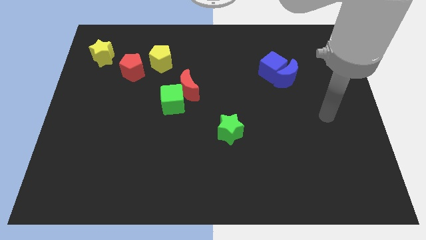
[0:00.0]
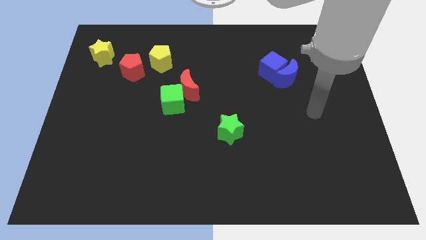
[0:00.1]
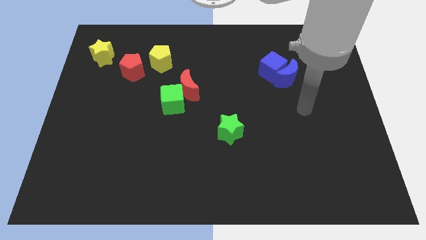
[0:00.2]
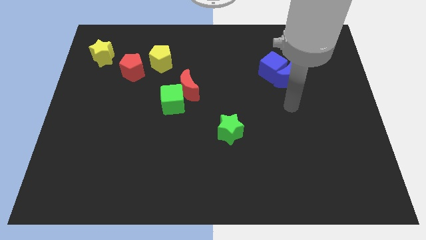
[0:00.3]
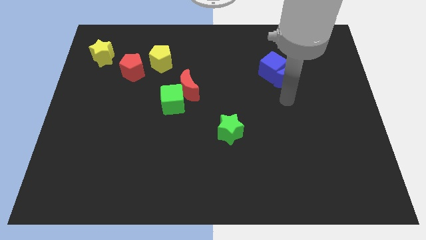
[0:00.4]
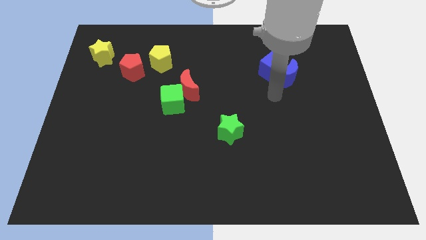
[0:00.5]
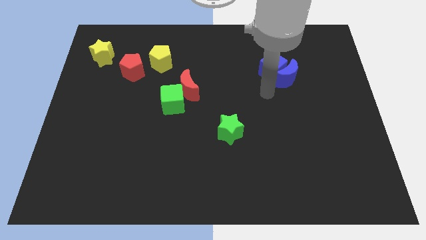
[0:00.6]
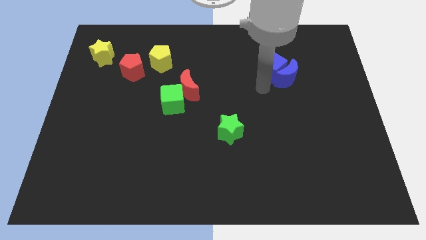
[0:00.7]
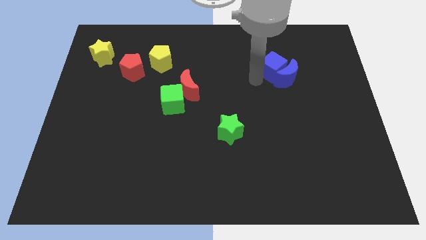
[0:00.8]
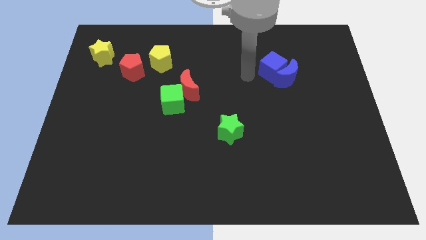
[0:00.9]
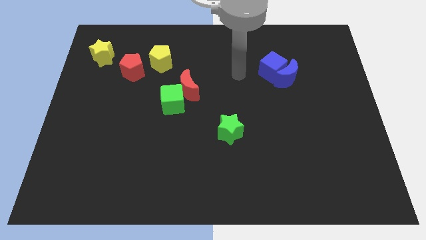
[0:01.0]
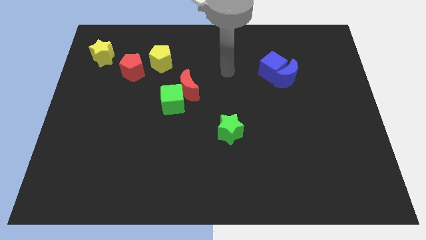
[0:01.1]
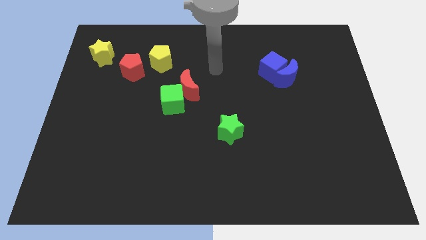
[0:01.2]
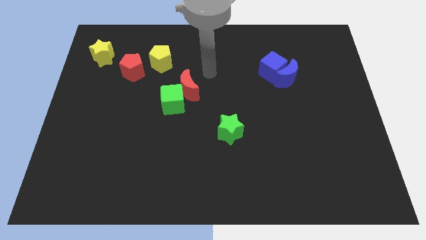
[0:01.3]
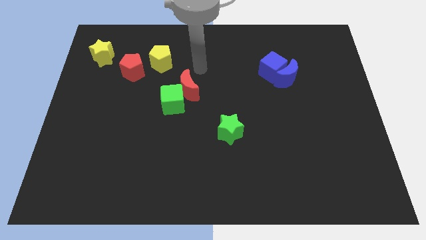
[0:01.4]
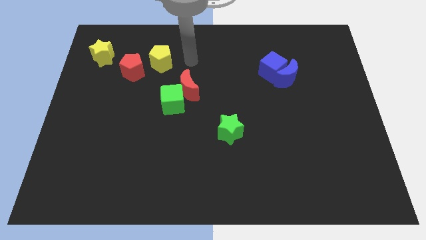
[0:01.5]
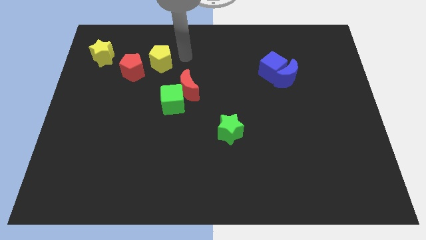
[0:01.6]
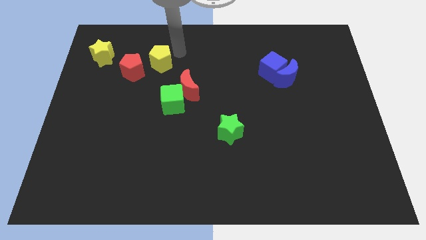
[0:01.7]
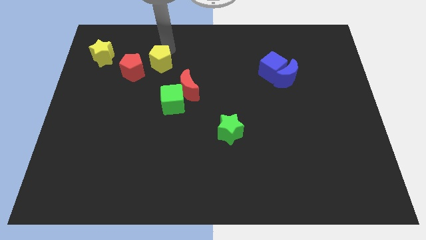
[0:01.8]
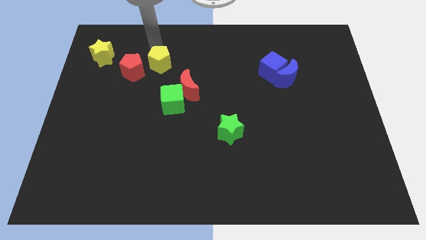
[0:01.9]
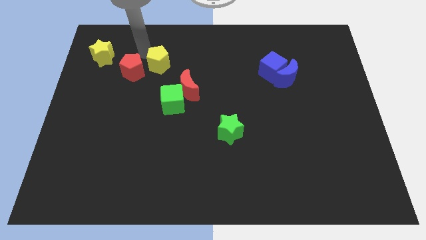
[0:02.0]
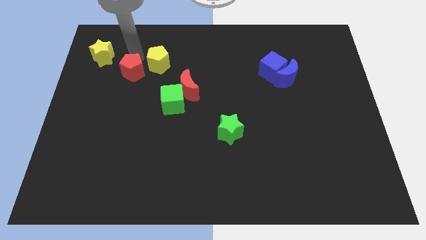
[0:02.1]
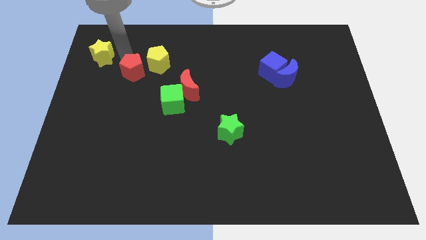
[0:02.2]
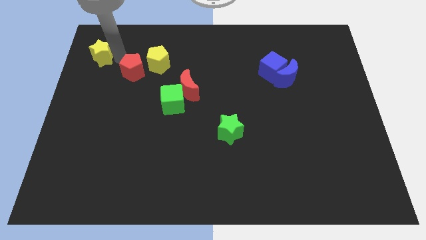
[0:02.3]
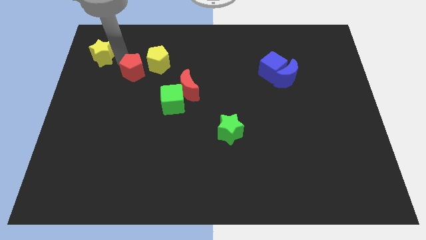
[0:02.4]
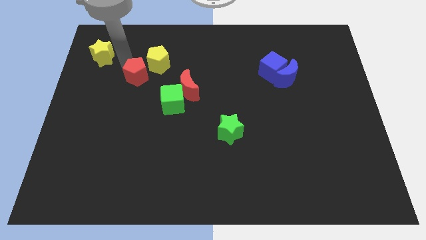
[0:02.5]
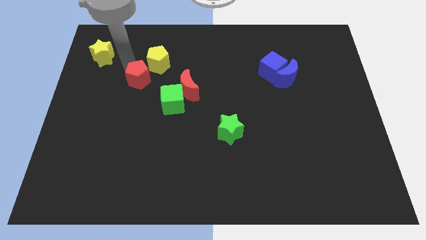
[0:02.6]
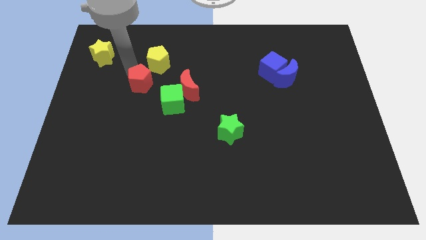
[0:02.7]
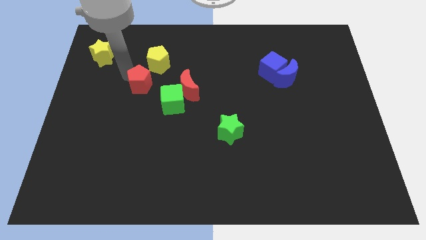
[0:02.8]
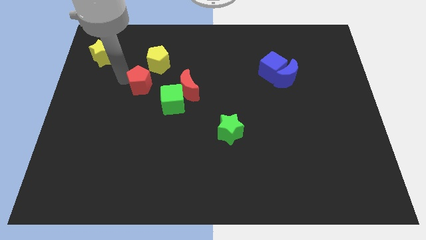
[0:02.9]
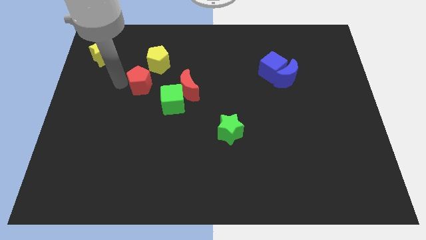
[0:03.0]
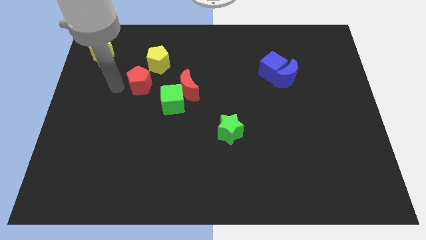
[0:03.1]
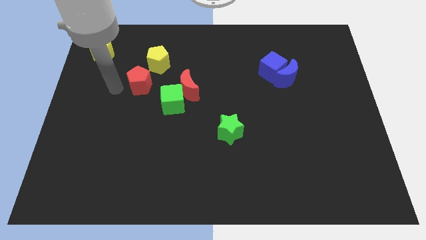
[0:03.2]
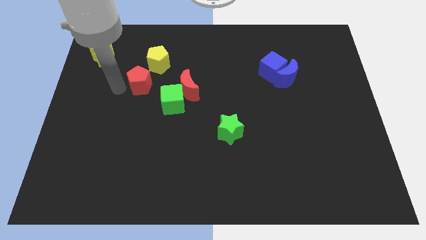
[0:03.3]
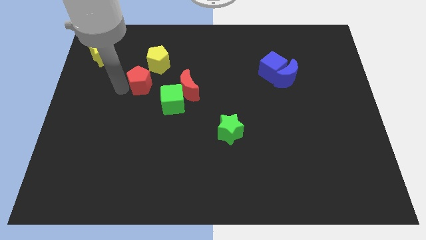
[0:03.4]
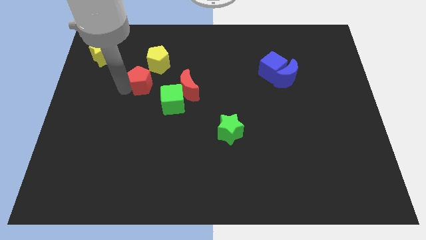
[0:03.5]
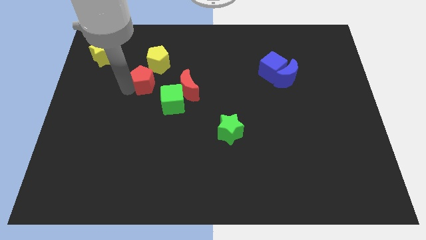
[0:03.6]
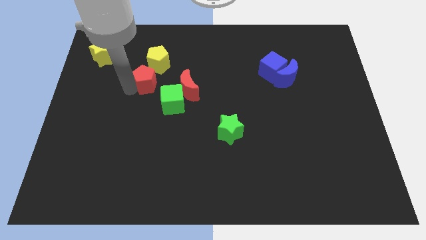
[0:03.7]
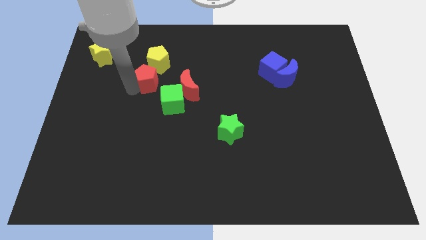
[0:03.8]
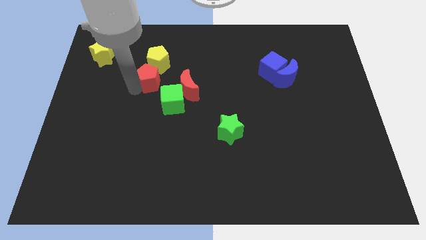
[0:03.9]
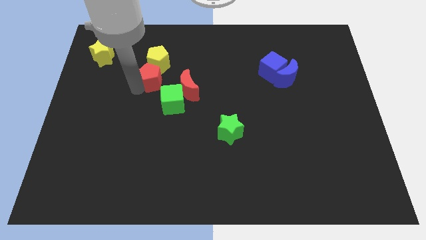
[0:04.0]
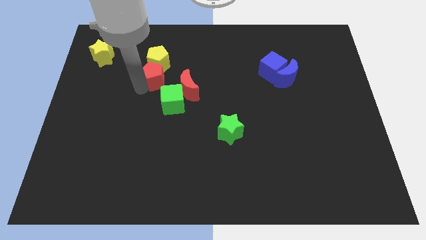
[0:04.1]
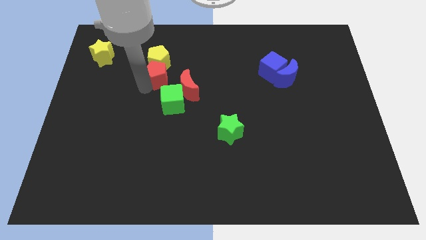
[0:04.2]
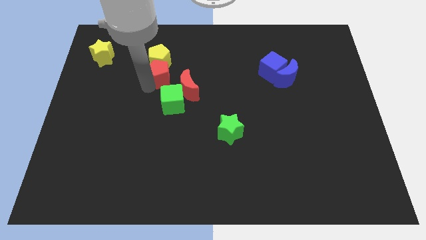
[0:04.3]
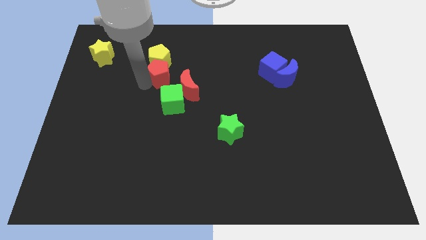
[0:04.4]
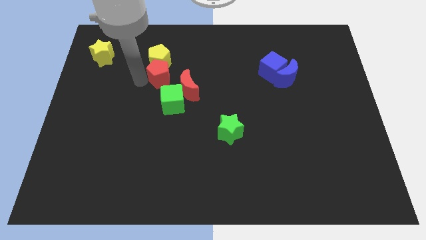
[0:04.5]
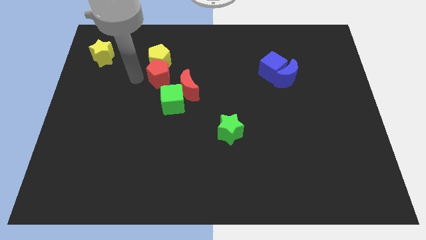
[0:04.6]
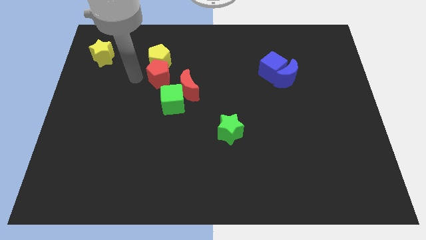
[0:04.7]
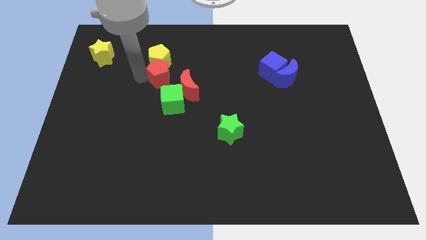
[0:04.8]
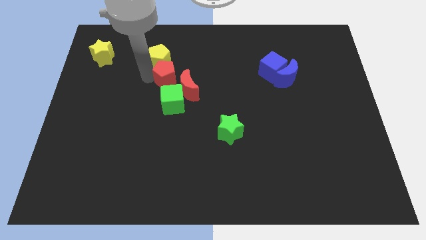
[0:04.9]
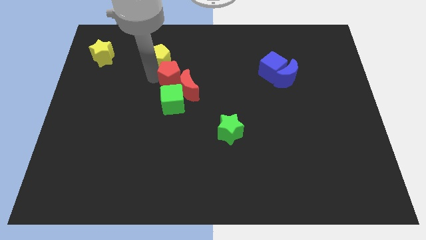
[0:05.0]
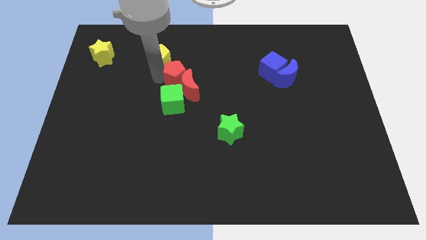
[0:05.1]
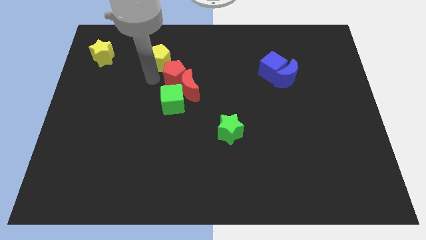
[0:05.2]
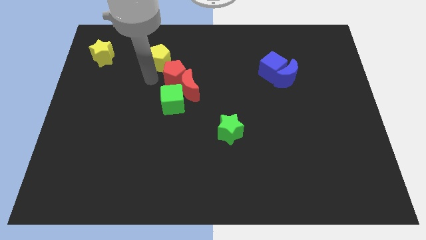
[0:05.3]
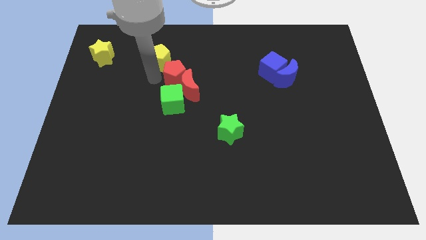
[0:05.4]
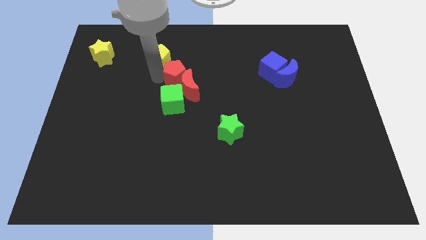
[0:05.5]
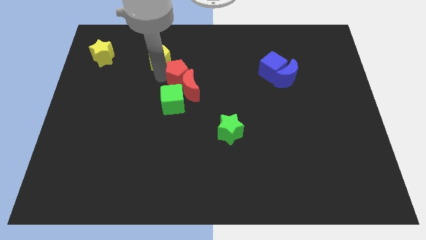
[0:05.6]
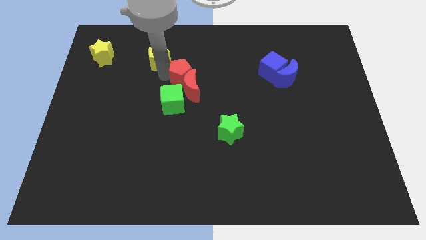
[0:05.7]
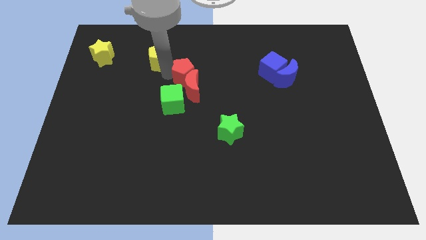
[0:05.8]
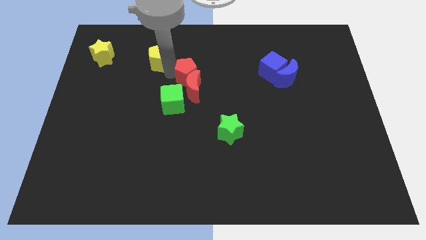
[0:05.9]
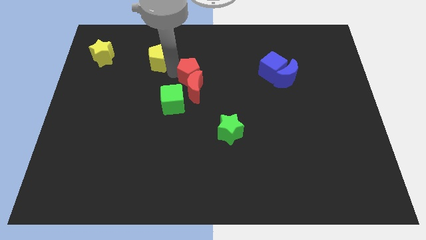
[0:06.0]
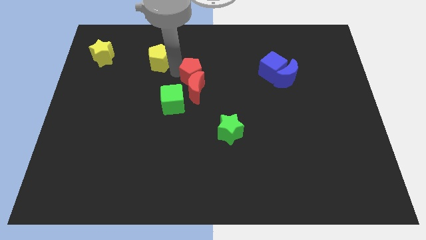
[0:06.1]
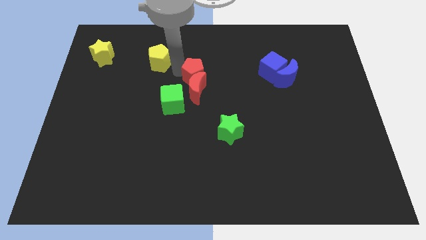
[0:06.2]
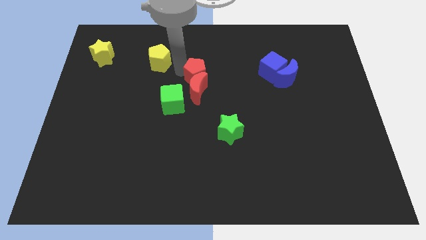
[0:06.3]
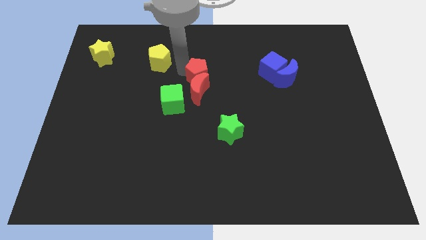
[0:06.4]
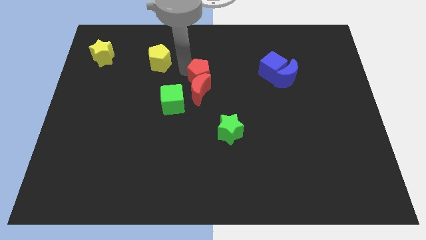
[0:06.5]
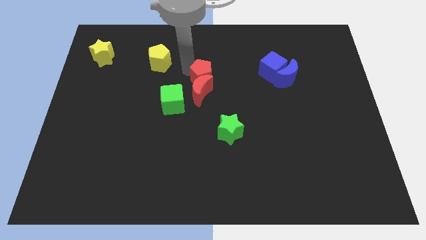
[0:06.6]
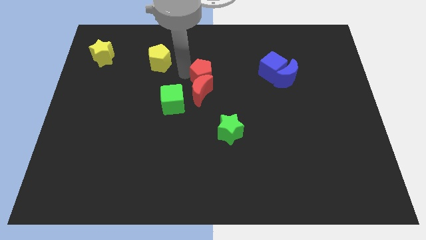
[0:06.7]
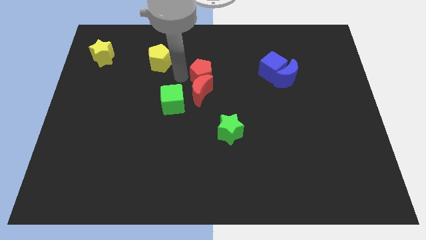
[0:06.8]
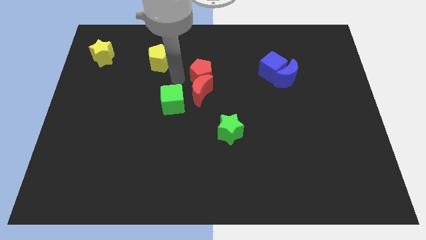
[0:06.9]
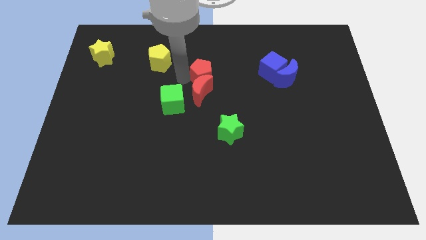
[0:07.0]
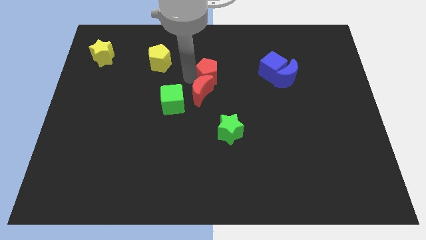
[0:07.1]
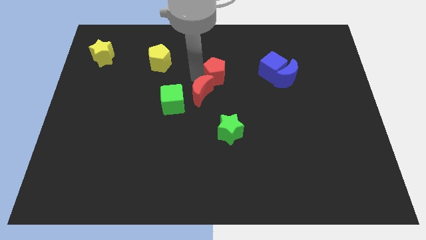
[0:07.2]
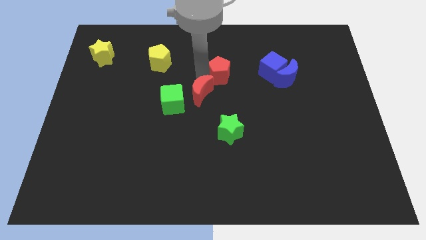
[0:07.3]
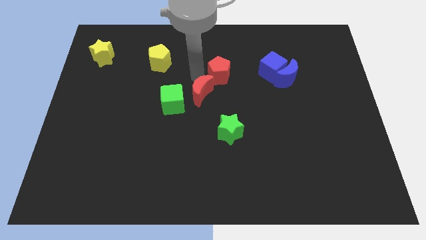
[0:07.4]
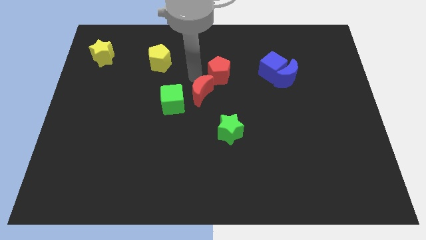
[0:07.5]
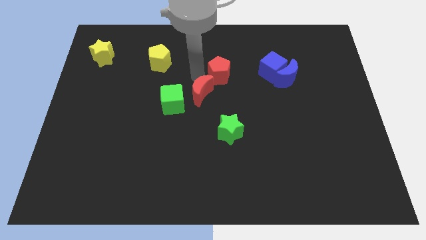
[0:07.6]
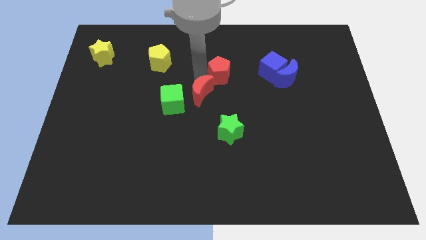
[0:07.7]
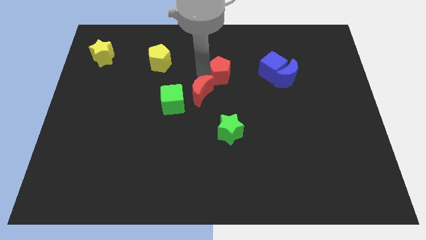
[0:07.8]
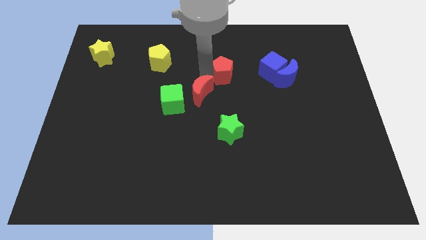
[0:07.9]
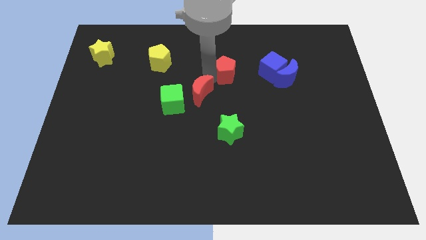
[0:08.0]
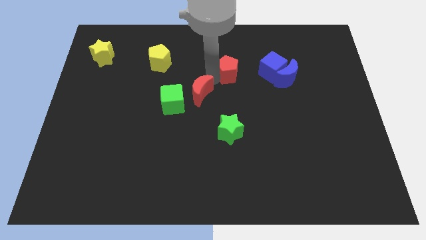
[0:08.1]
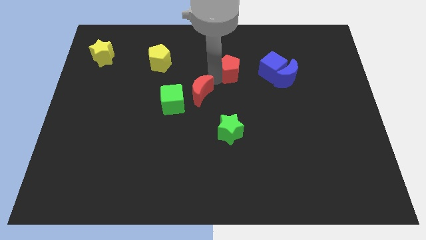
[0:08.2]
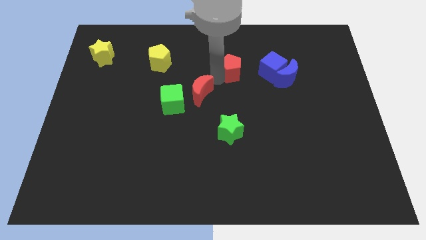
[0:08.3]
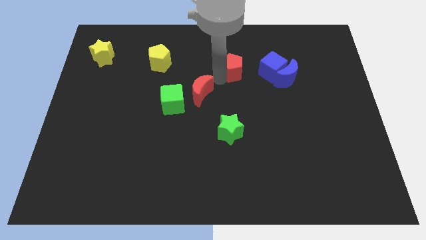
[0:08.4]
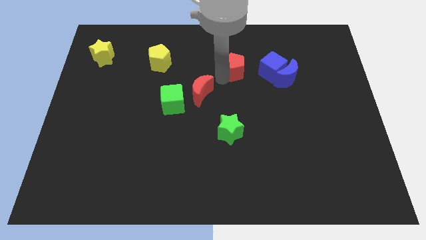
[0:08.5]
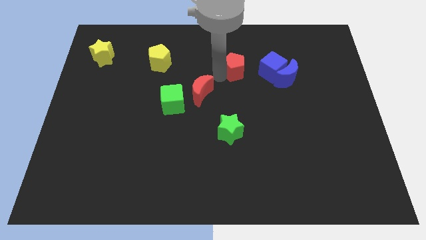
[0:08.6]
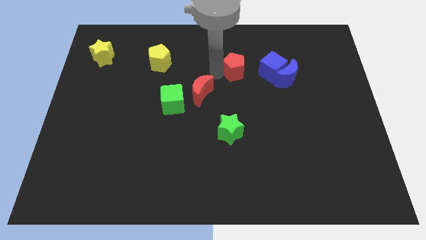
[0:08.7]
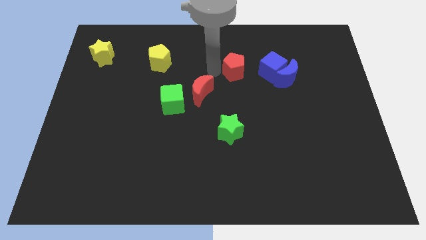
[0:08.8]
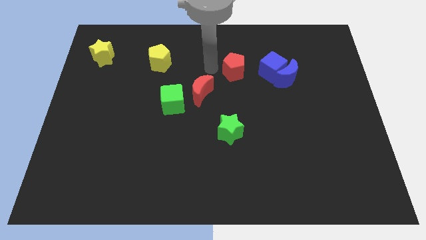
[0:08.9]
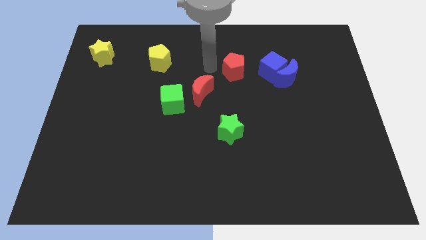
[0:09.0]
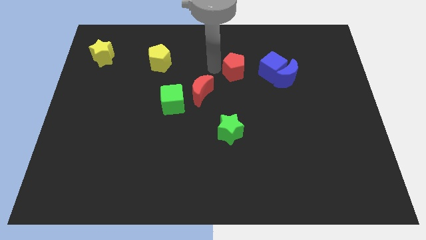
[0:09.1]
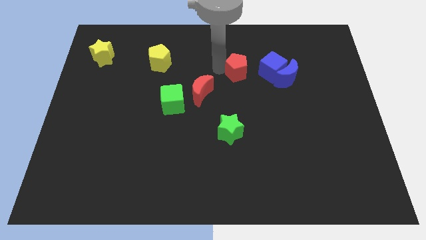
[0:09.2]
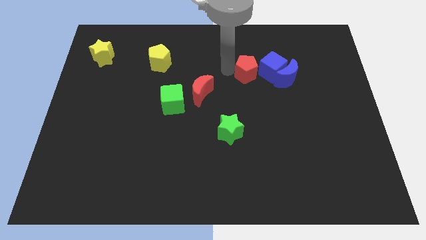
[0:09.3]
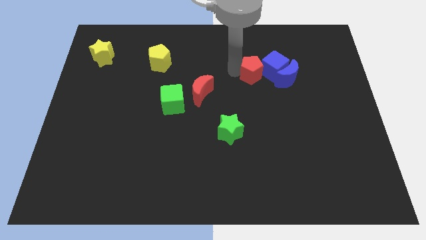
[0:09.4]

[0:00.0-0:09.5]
push the red pentagon close to the blue cube
